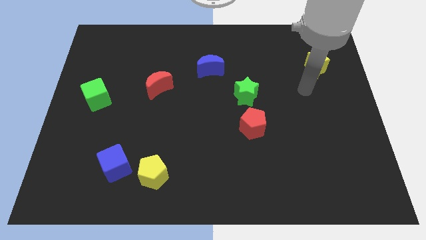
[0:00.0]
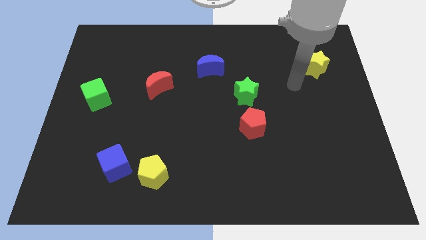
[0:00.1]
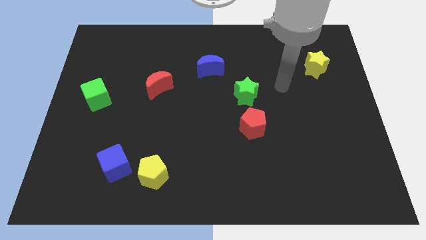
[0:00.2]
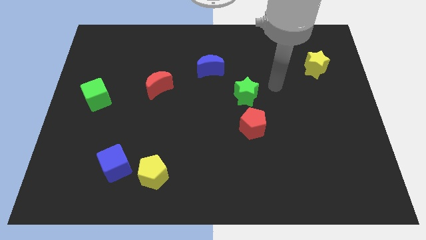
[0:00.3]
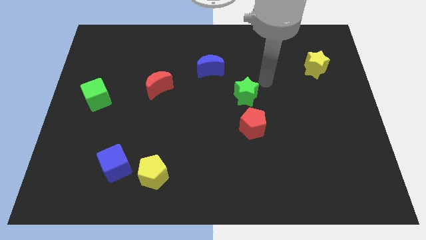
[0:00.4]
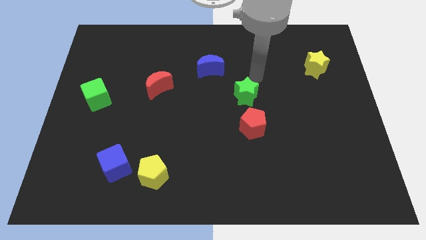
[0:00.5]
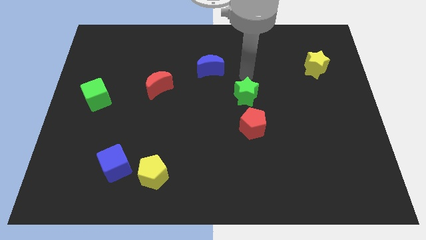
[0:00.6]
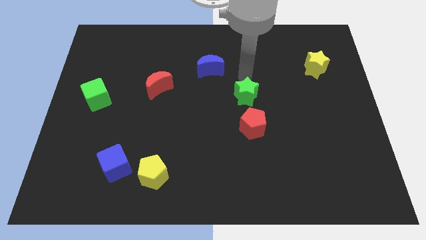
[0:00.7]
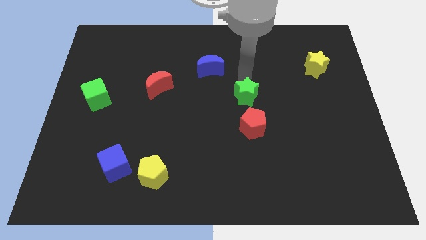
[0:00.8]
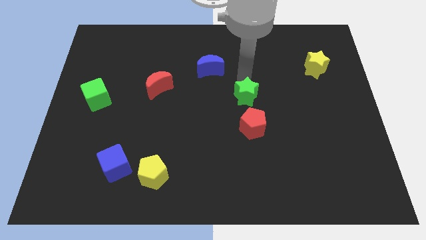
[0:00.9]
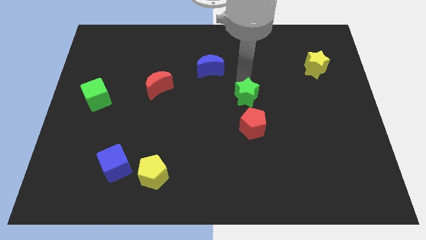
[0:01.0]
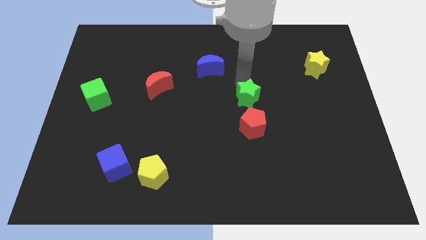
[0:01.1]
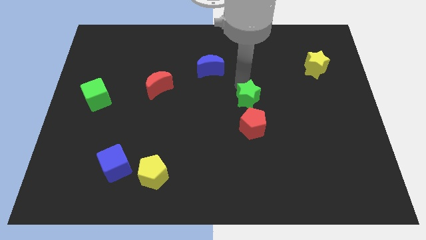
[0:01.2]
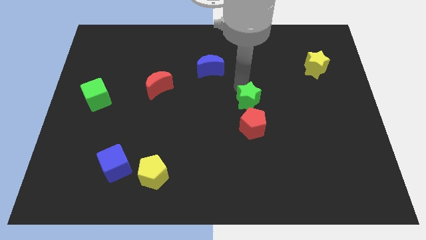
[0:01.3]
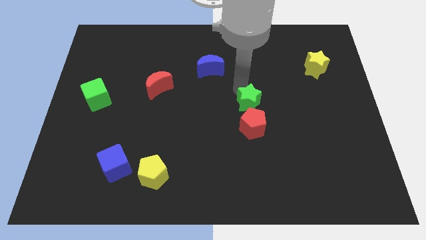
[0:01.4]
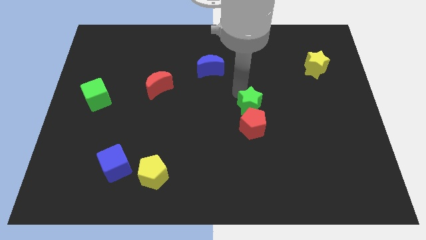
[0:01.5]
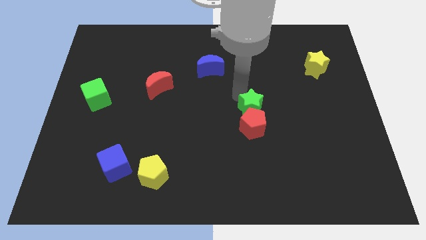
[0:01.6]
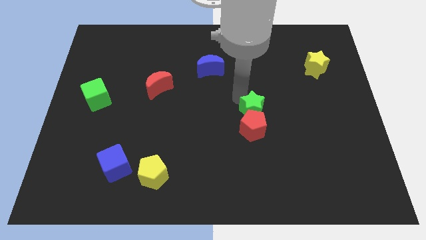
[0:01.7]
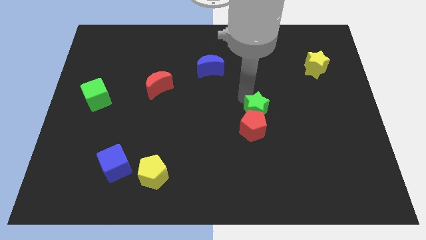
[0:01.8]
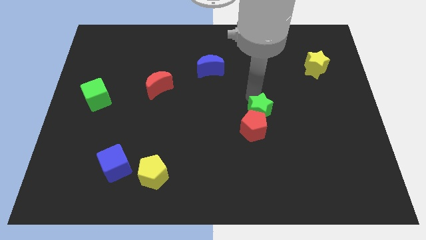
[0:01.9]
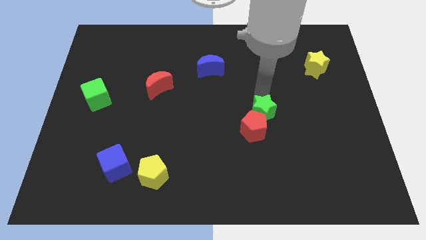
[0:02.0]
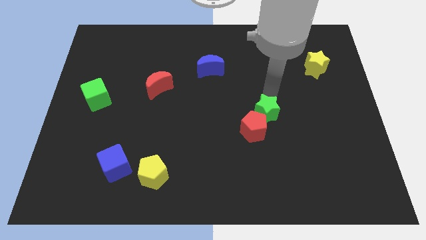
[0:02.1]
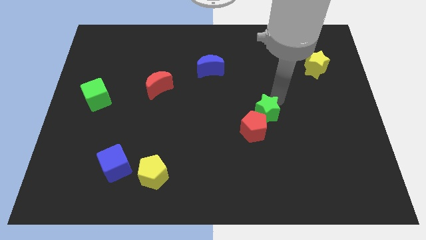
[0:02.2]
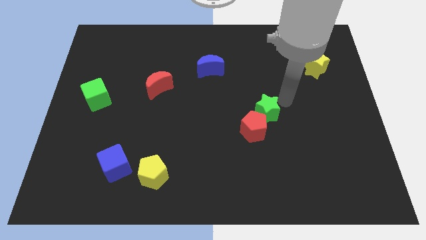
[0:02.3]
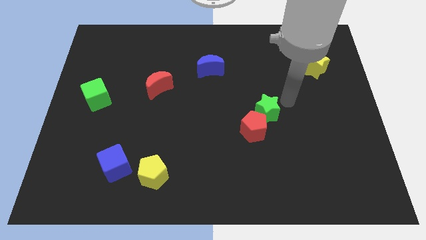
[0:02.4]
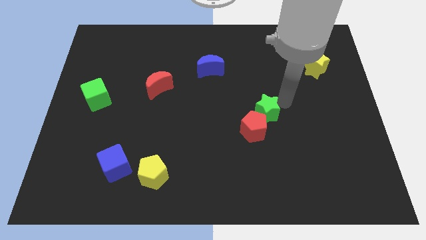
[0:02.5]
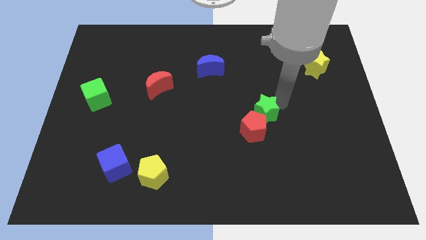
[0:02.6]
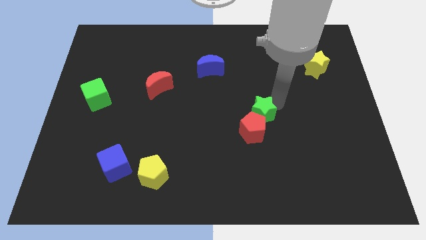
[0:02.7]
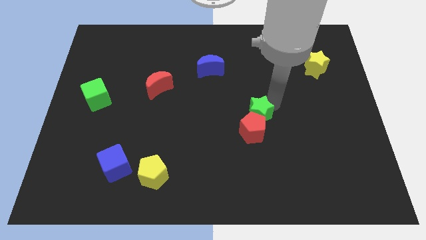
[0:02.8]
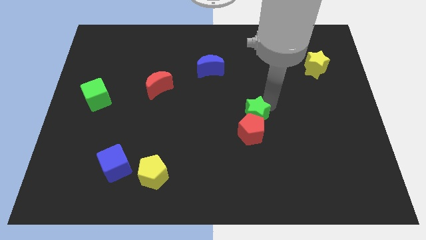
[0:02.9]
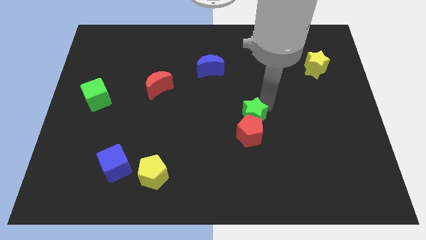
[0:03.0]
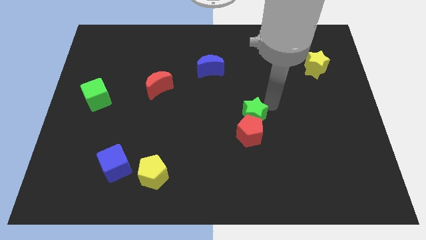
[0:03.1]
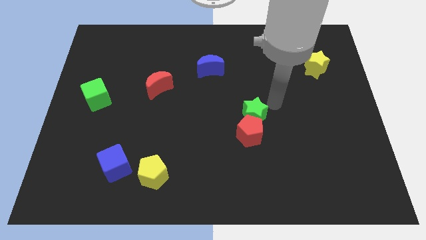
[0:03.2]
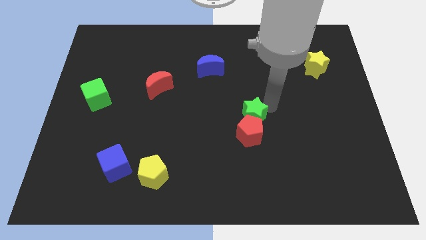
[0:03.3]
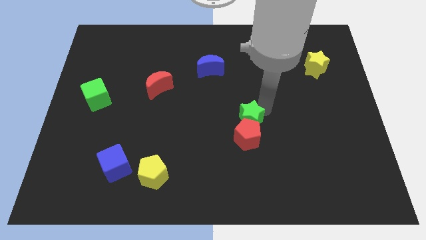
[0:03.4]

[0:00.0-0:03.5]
push the green star down slightly

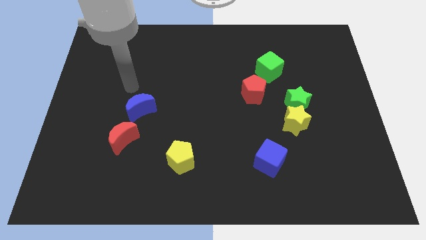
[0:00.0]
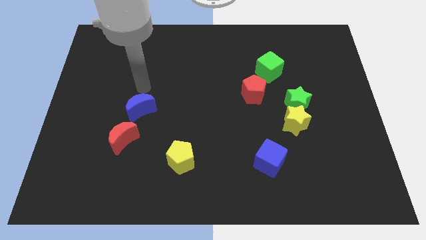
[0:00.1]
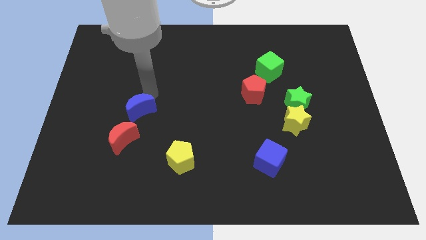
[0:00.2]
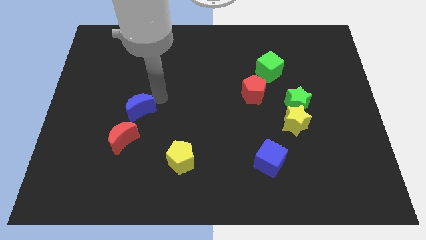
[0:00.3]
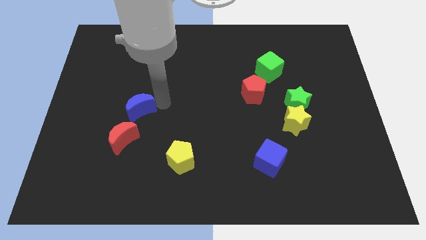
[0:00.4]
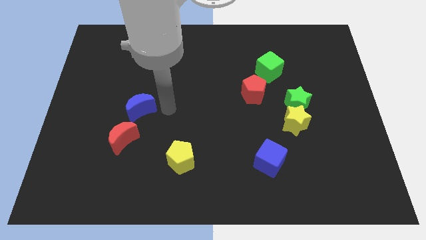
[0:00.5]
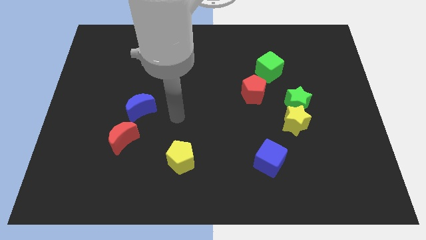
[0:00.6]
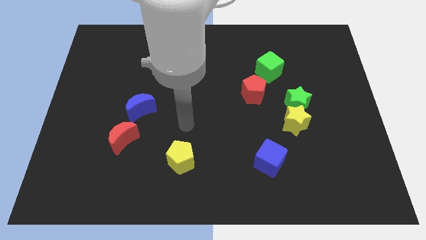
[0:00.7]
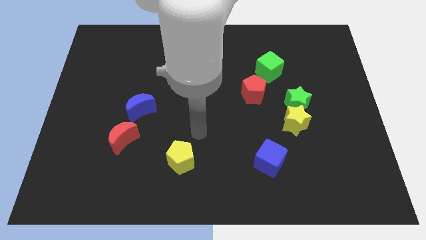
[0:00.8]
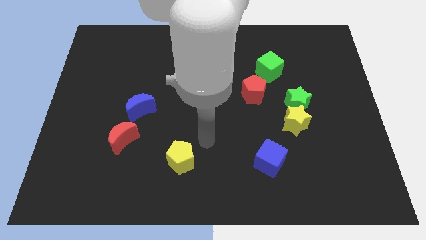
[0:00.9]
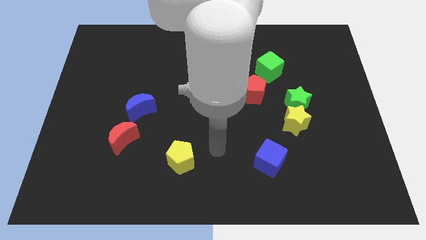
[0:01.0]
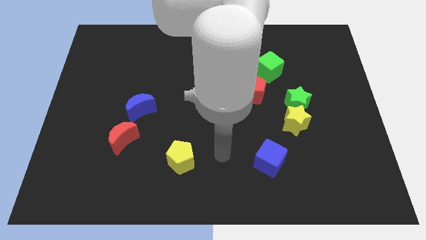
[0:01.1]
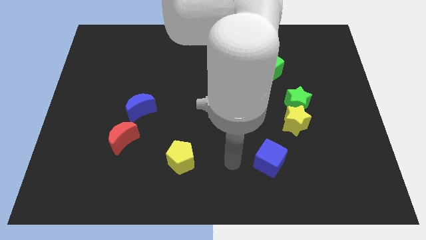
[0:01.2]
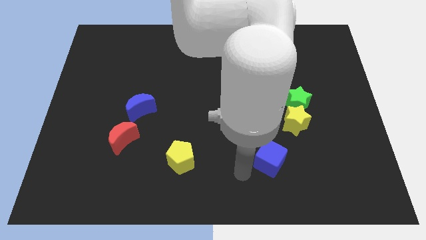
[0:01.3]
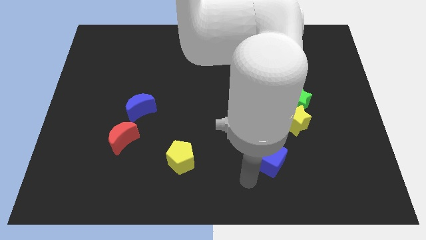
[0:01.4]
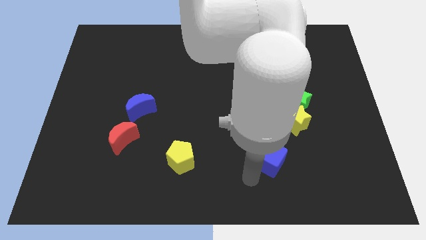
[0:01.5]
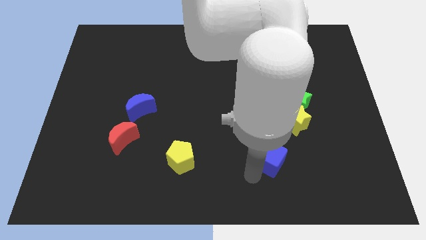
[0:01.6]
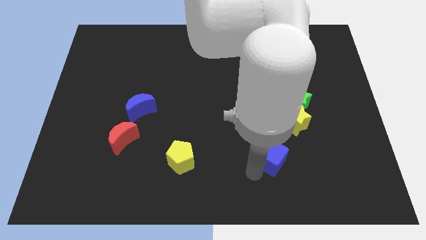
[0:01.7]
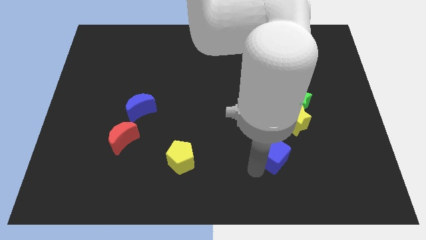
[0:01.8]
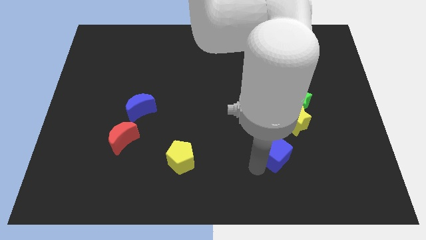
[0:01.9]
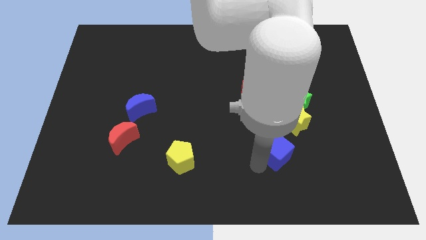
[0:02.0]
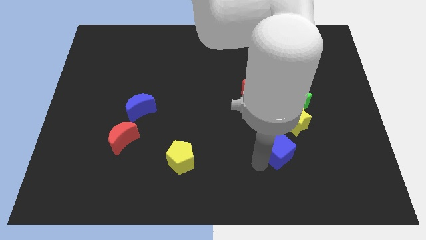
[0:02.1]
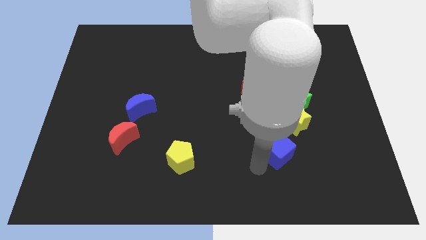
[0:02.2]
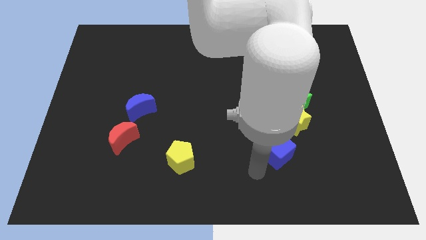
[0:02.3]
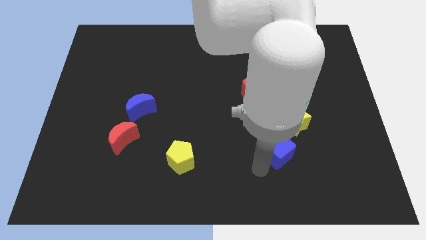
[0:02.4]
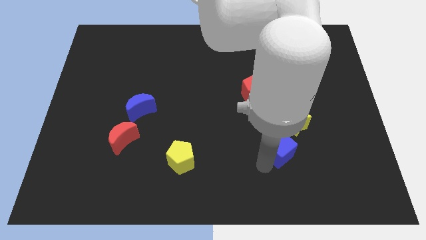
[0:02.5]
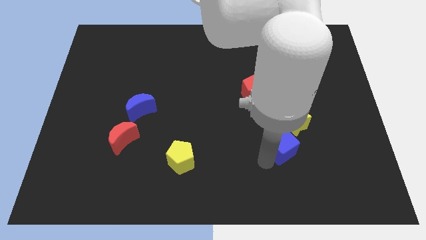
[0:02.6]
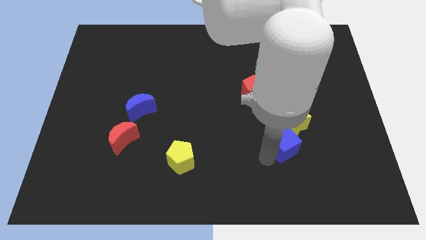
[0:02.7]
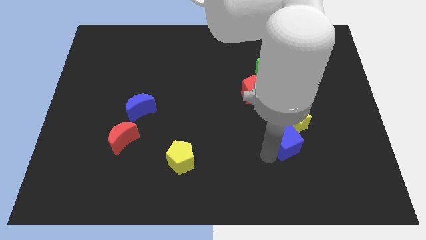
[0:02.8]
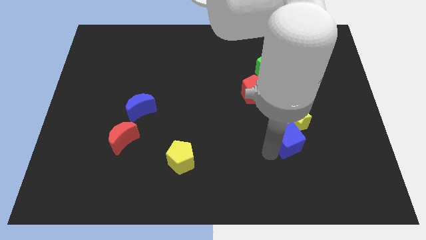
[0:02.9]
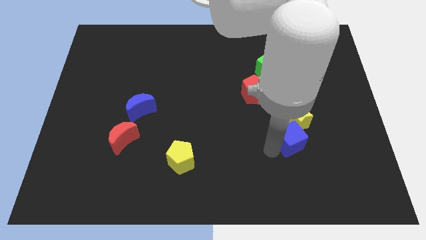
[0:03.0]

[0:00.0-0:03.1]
slide the blue cube a little diagonally up and to the right

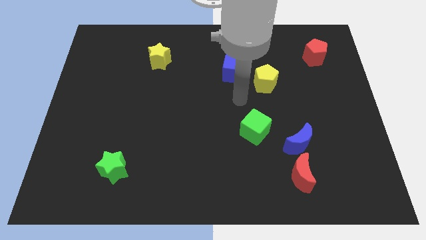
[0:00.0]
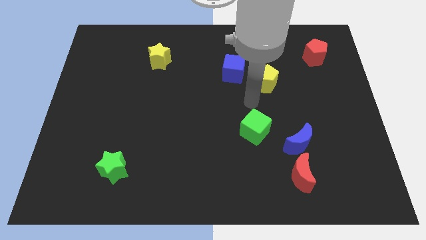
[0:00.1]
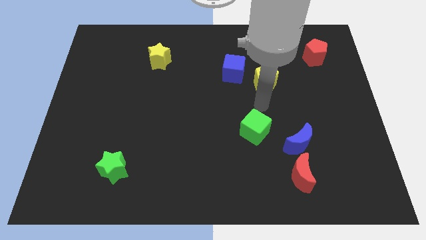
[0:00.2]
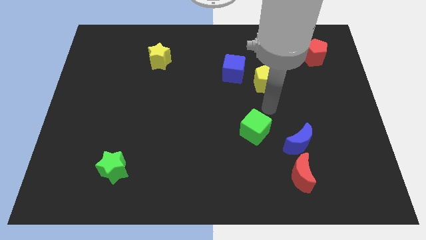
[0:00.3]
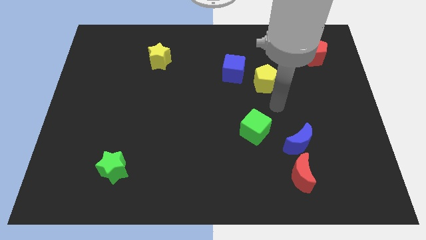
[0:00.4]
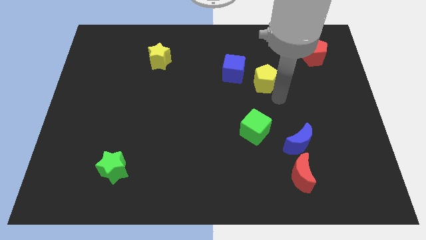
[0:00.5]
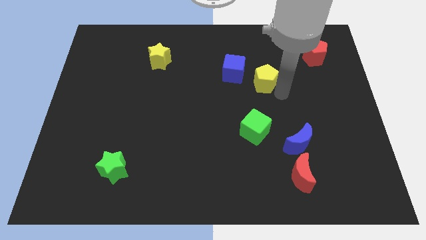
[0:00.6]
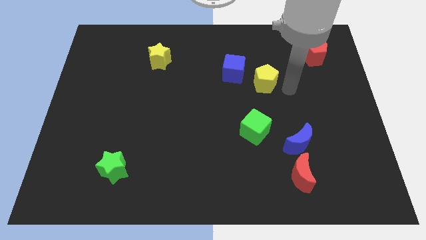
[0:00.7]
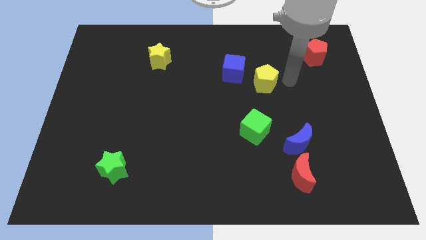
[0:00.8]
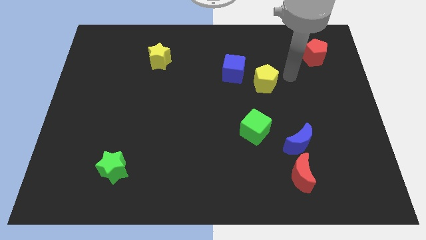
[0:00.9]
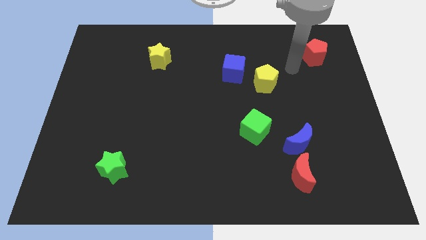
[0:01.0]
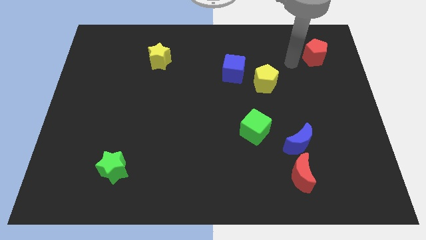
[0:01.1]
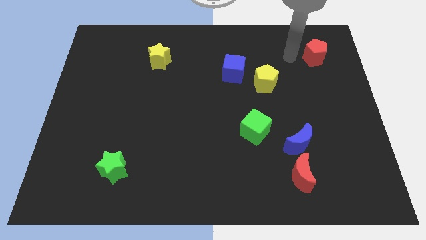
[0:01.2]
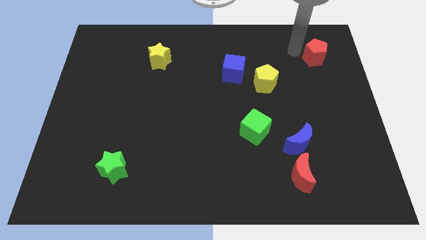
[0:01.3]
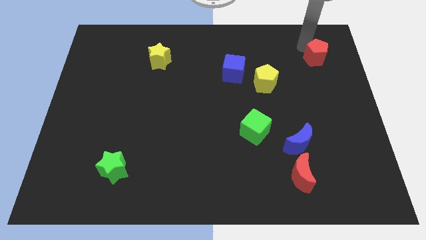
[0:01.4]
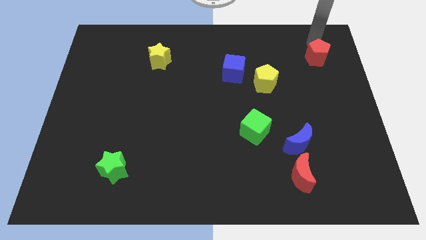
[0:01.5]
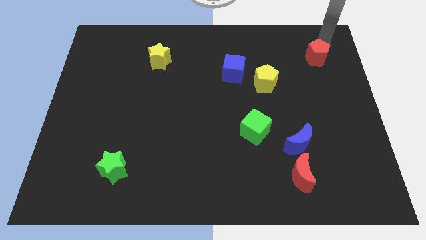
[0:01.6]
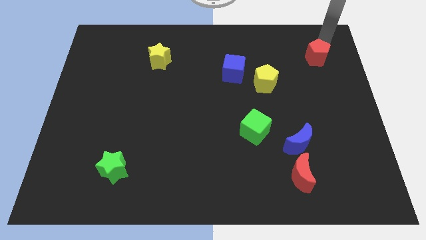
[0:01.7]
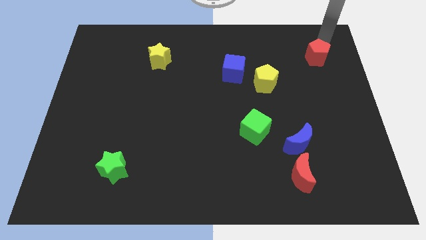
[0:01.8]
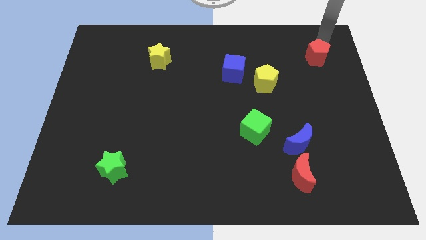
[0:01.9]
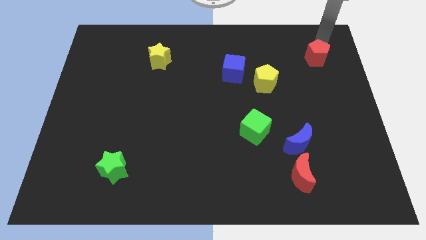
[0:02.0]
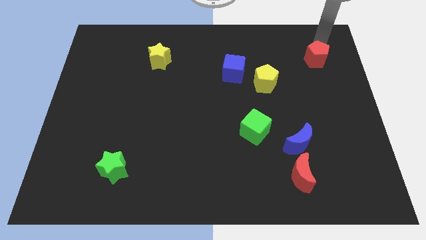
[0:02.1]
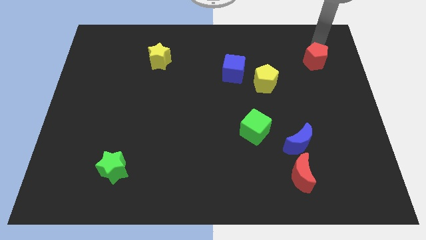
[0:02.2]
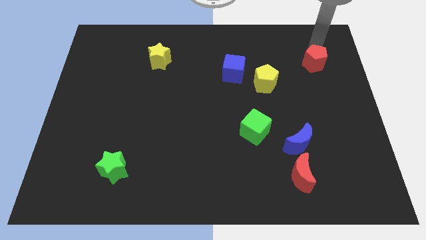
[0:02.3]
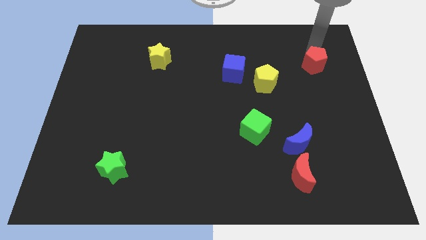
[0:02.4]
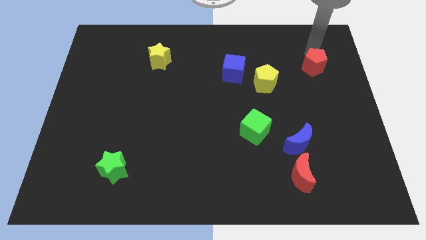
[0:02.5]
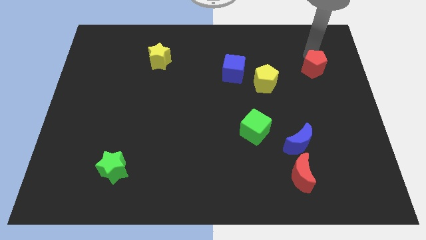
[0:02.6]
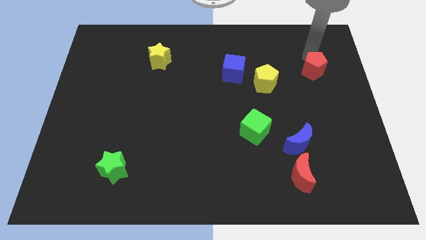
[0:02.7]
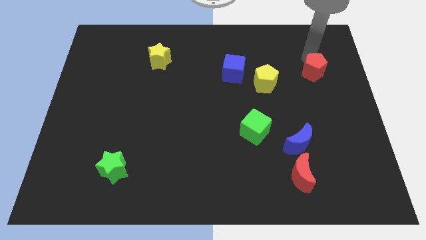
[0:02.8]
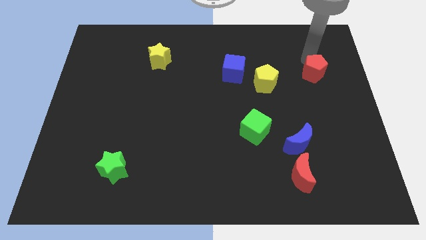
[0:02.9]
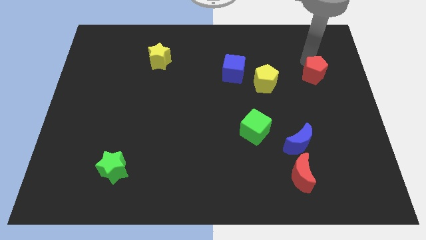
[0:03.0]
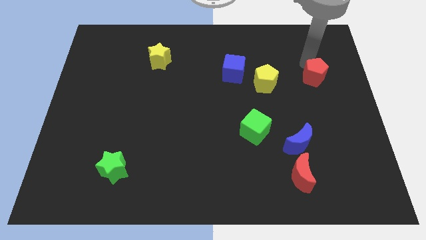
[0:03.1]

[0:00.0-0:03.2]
move the red pentagon a bit down
